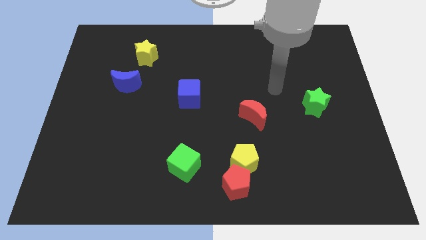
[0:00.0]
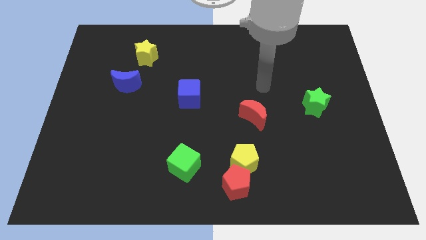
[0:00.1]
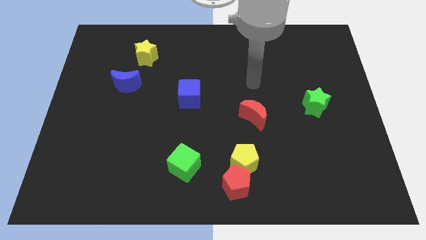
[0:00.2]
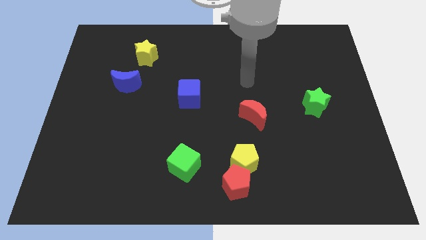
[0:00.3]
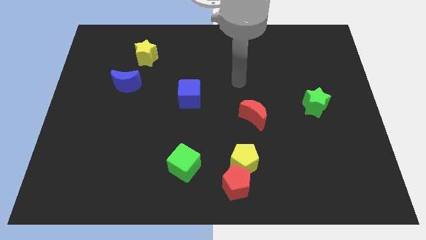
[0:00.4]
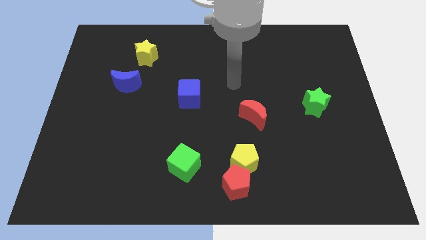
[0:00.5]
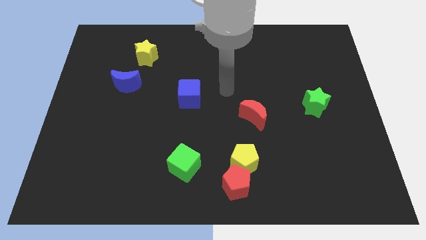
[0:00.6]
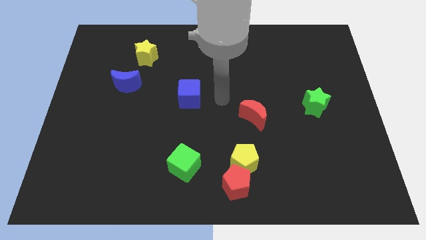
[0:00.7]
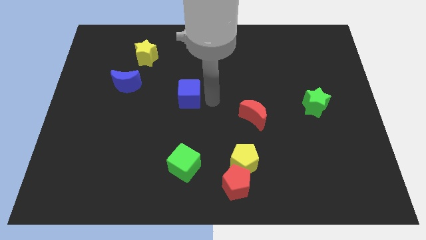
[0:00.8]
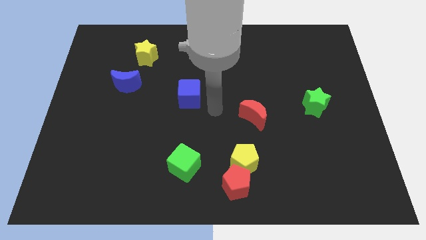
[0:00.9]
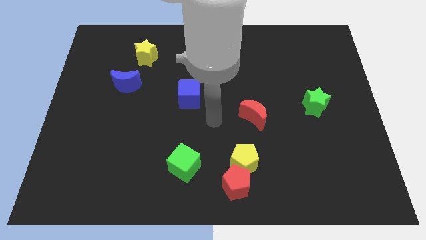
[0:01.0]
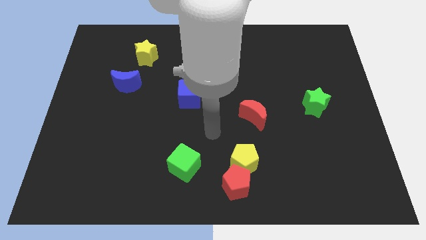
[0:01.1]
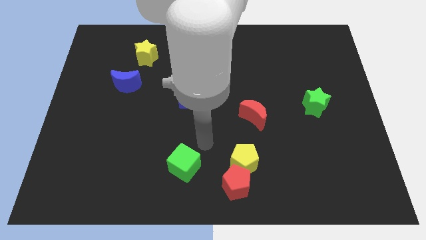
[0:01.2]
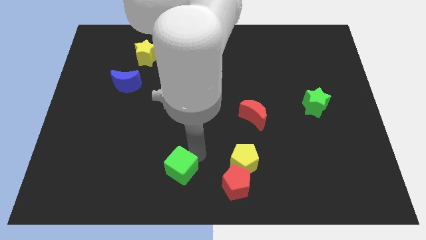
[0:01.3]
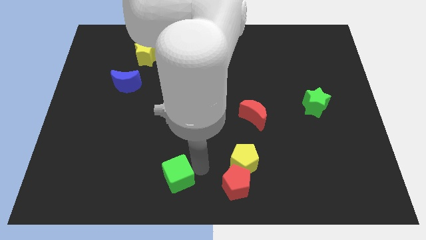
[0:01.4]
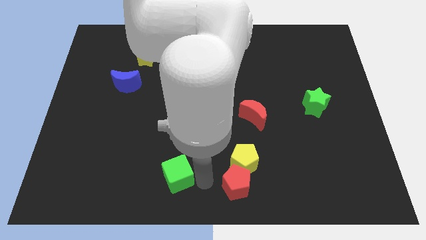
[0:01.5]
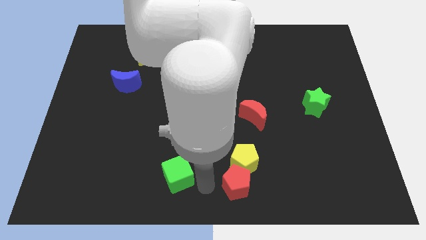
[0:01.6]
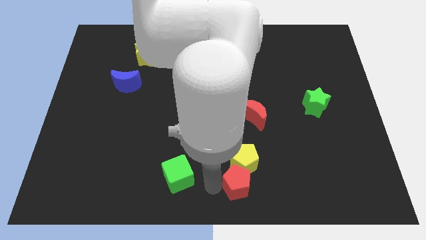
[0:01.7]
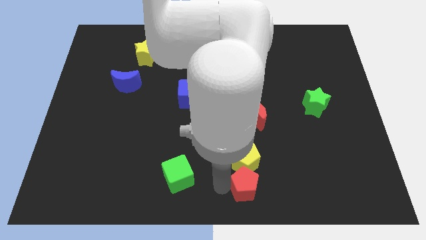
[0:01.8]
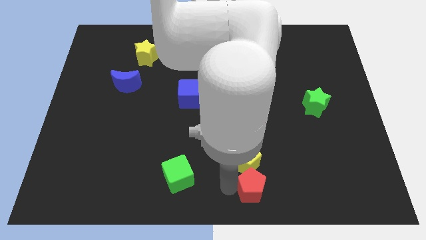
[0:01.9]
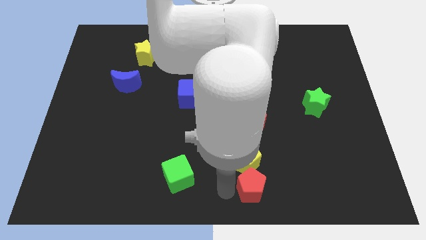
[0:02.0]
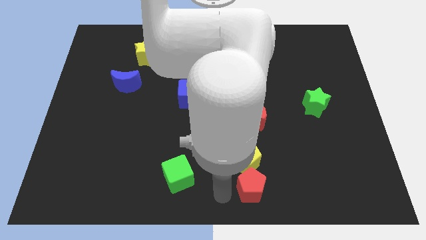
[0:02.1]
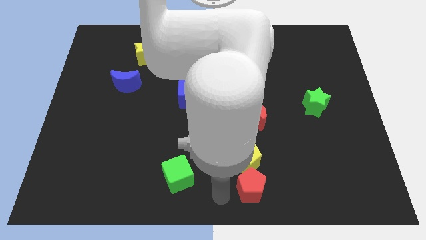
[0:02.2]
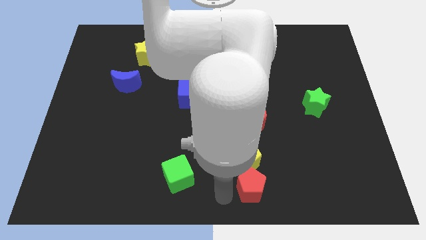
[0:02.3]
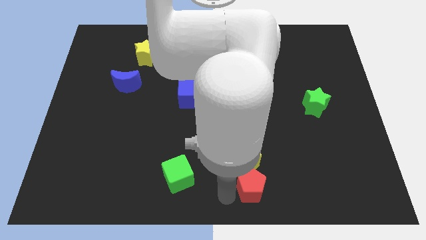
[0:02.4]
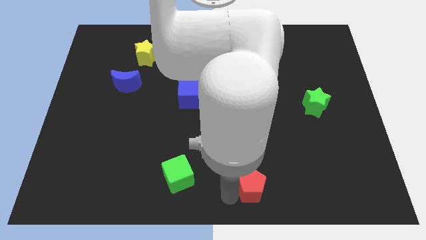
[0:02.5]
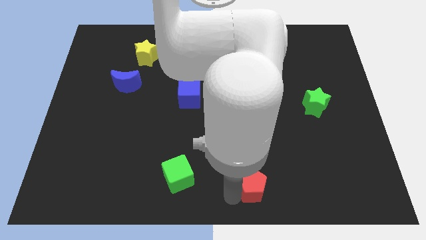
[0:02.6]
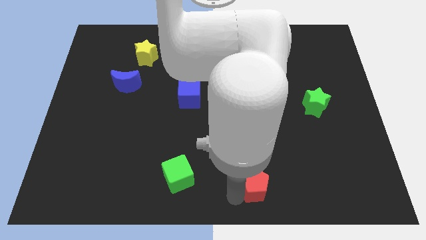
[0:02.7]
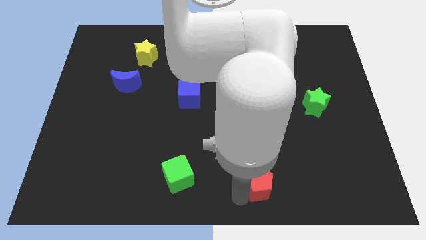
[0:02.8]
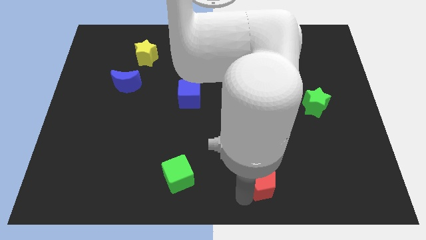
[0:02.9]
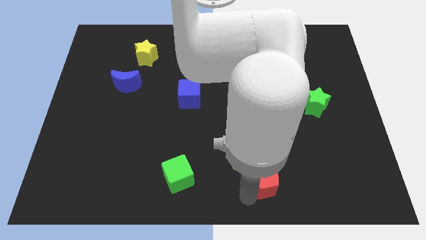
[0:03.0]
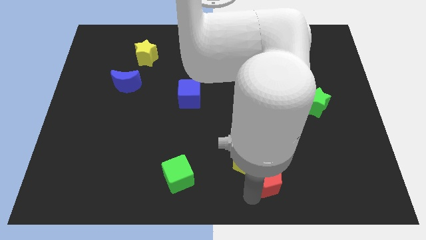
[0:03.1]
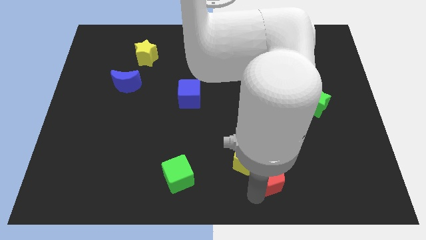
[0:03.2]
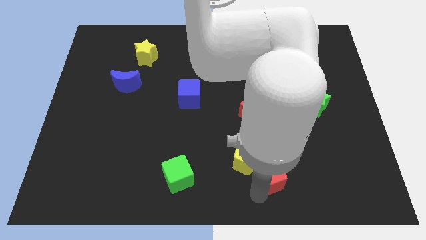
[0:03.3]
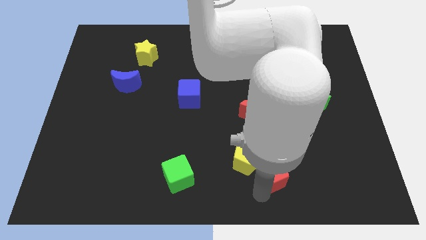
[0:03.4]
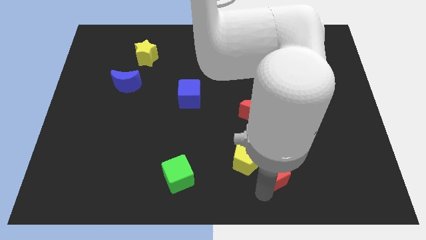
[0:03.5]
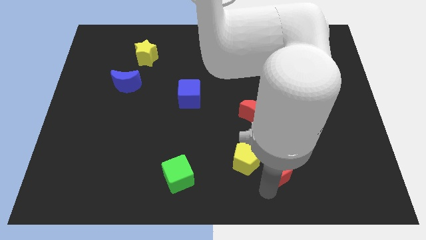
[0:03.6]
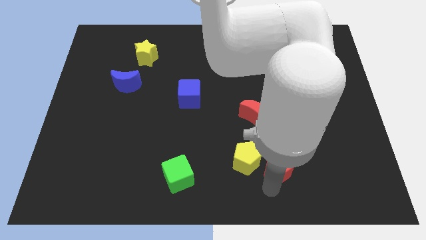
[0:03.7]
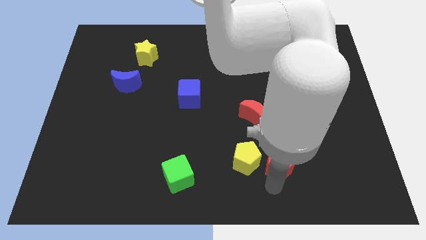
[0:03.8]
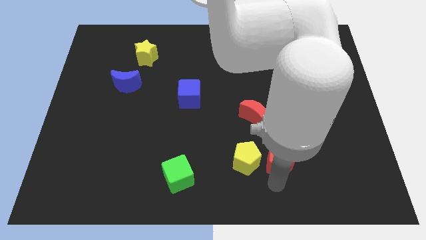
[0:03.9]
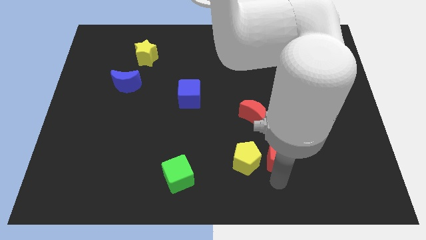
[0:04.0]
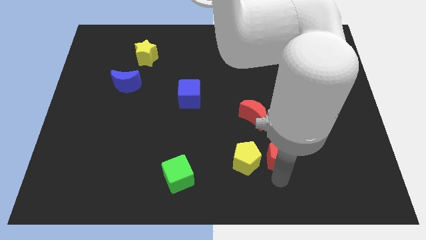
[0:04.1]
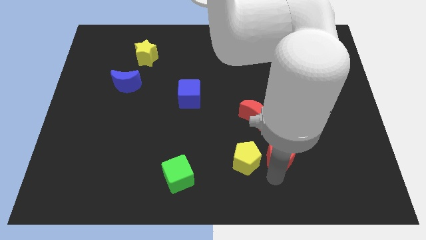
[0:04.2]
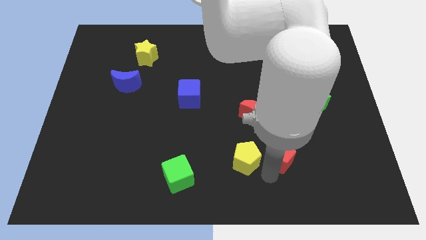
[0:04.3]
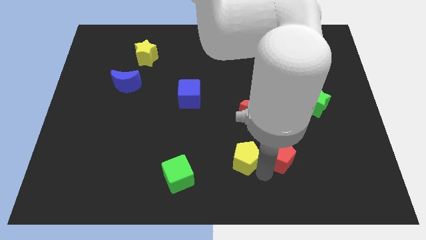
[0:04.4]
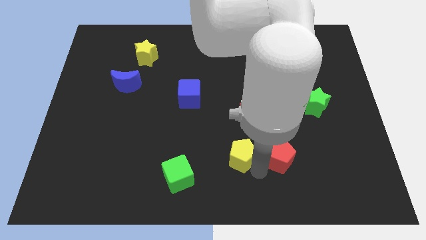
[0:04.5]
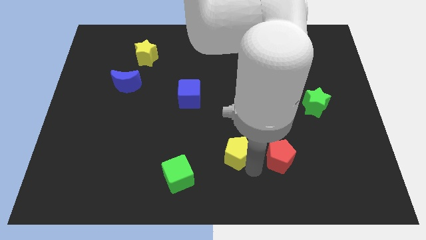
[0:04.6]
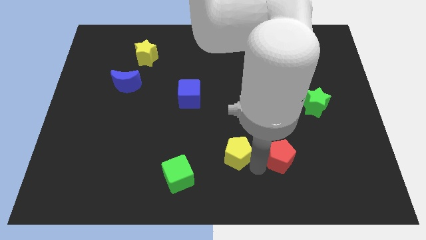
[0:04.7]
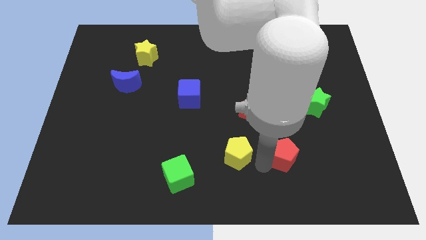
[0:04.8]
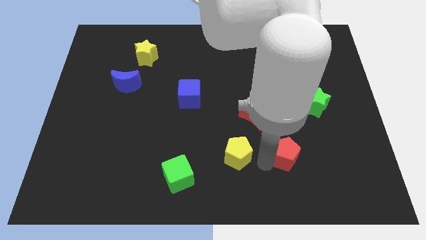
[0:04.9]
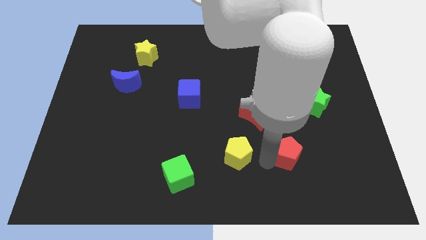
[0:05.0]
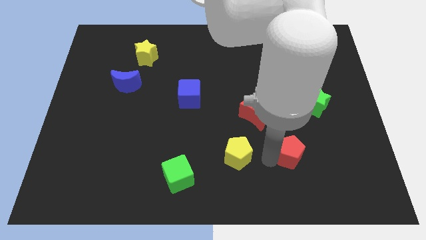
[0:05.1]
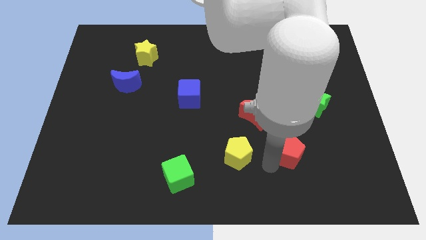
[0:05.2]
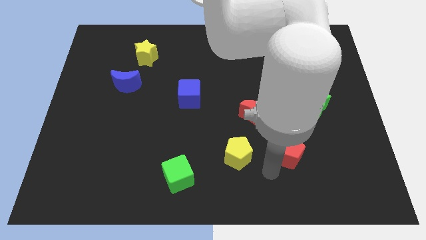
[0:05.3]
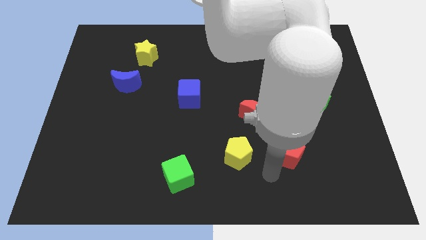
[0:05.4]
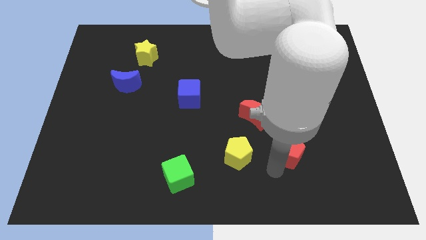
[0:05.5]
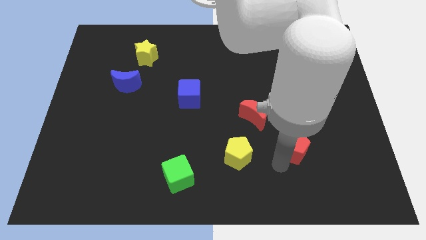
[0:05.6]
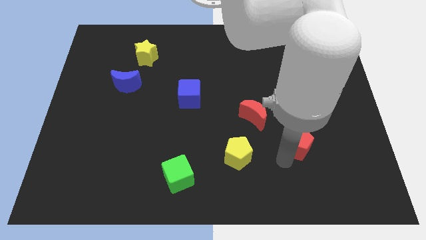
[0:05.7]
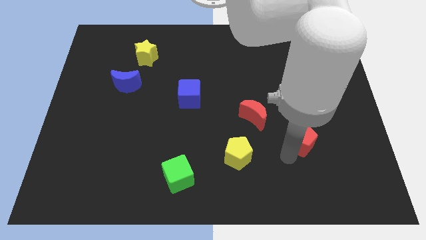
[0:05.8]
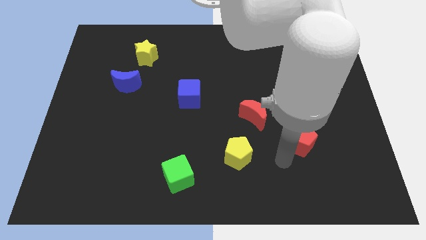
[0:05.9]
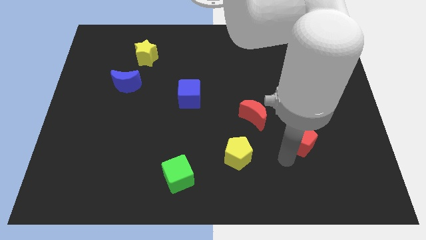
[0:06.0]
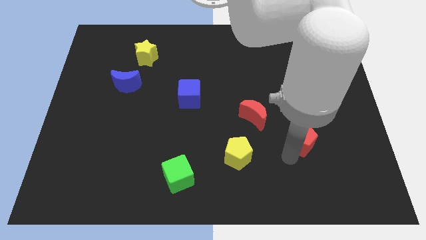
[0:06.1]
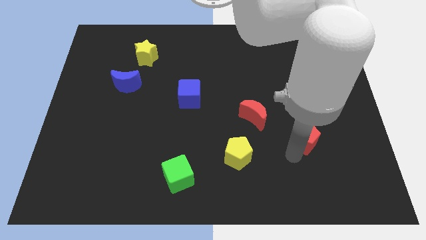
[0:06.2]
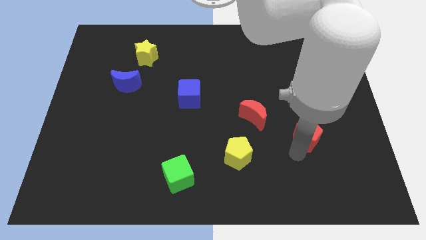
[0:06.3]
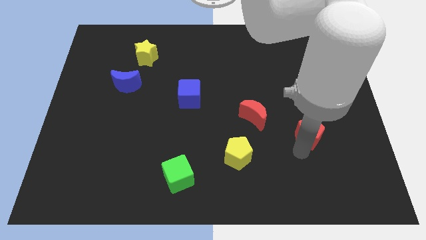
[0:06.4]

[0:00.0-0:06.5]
move the red pentagon diagonally upwards and right

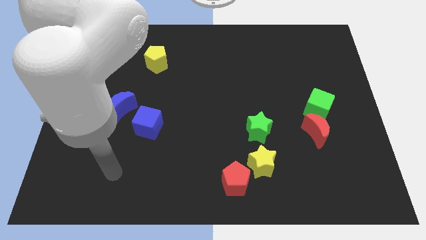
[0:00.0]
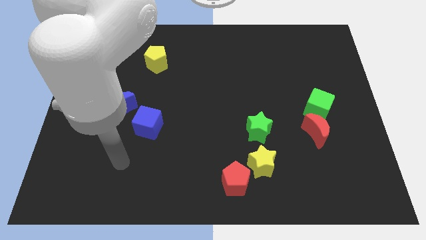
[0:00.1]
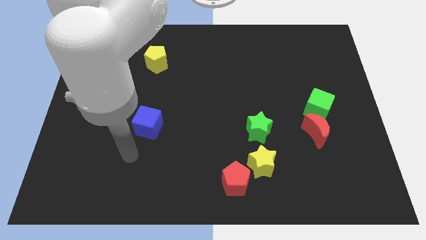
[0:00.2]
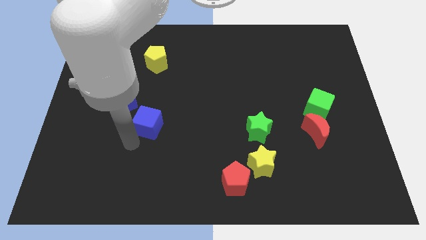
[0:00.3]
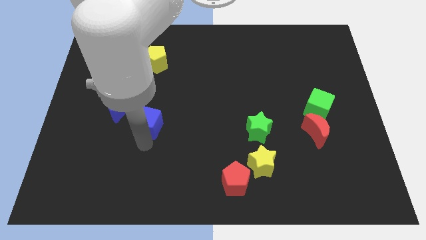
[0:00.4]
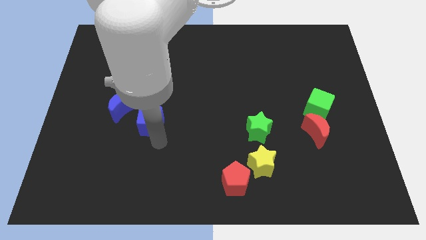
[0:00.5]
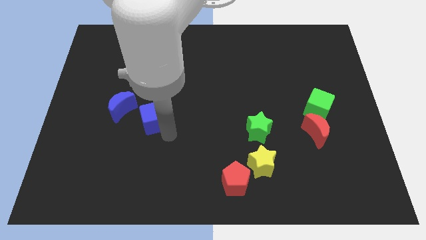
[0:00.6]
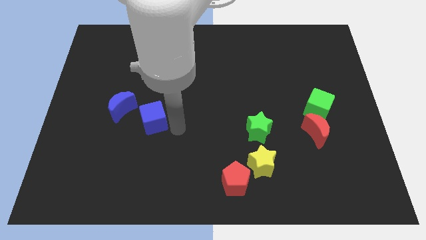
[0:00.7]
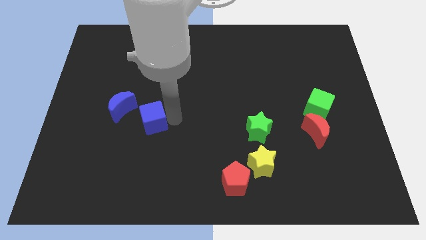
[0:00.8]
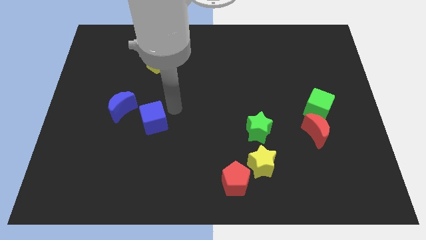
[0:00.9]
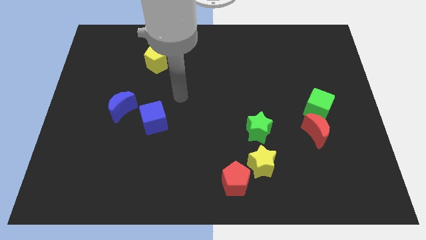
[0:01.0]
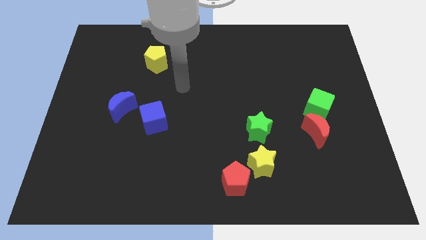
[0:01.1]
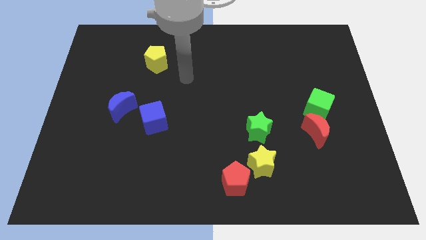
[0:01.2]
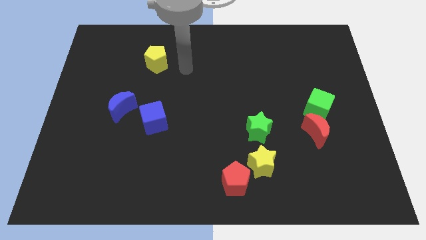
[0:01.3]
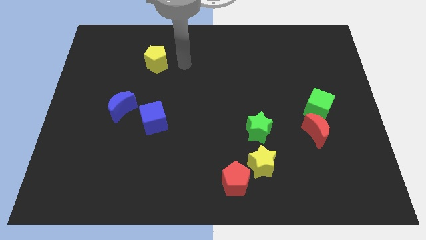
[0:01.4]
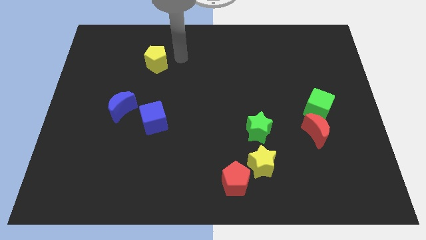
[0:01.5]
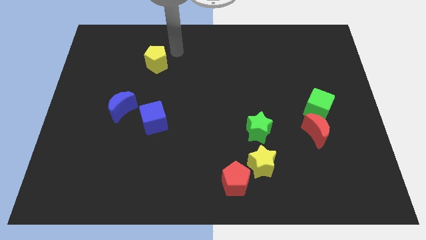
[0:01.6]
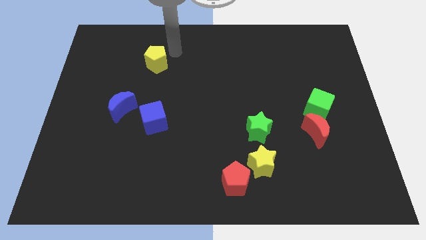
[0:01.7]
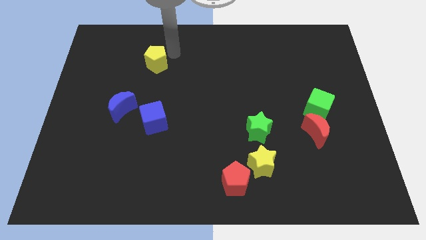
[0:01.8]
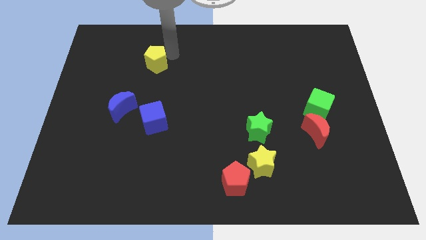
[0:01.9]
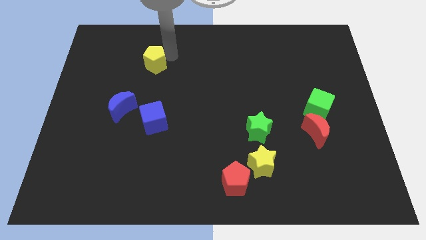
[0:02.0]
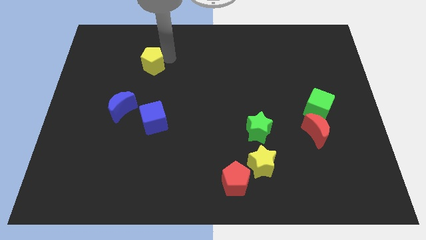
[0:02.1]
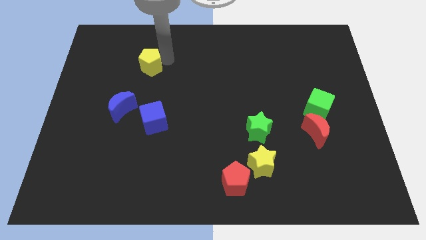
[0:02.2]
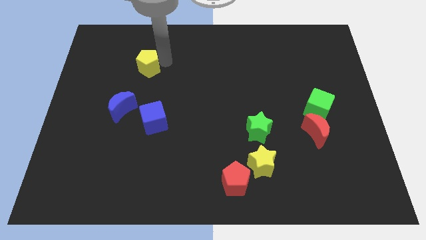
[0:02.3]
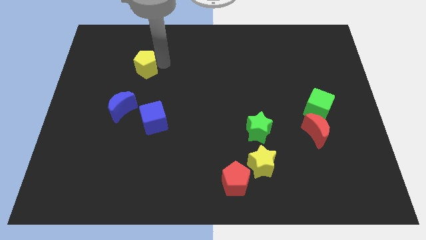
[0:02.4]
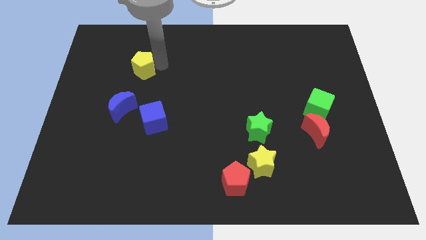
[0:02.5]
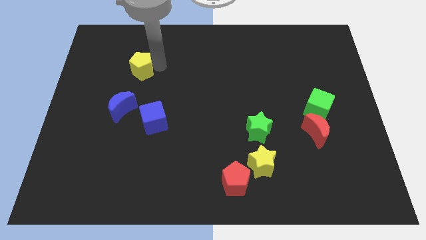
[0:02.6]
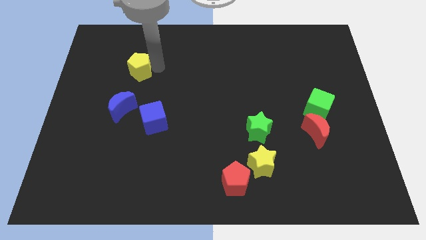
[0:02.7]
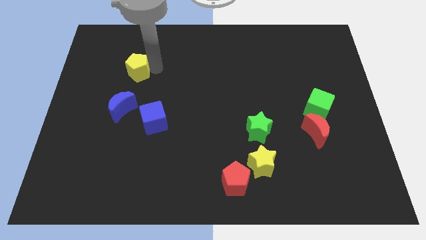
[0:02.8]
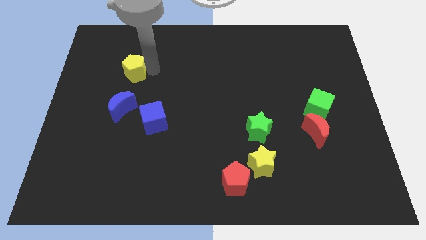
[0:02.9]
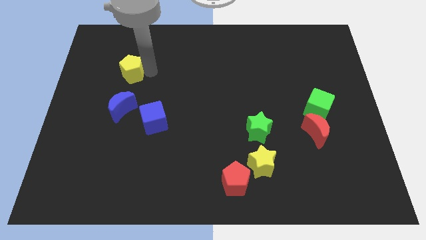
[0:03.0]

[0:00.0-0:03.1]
move the yellow pentagon slightly downwards and then to the left
